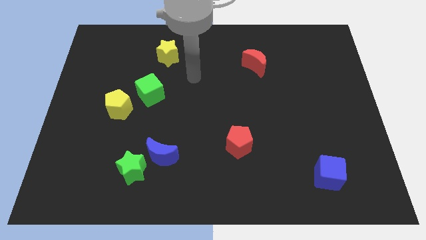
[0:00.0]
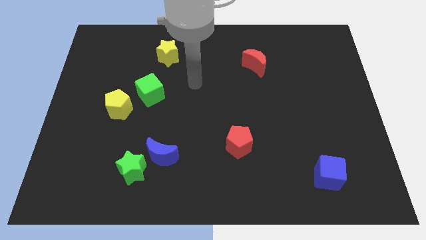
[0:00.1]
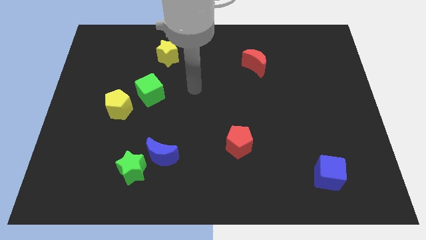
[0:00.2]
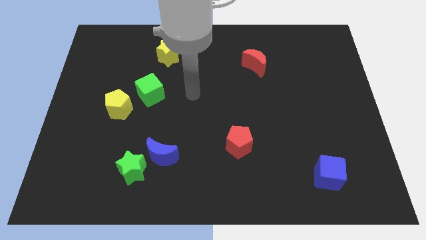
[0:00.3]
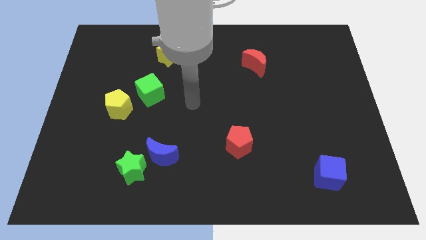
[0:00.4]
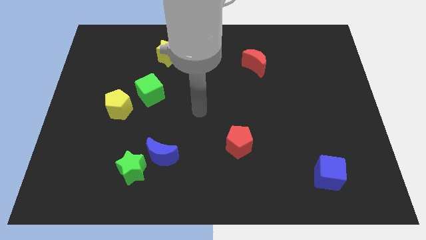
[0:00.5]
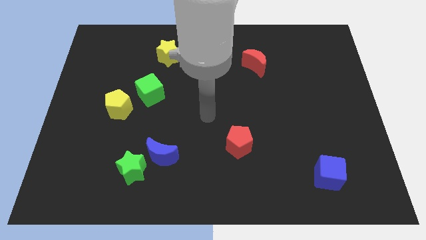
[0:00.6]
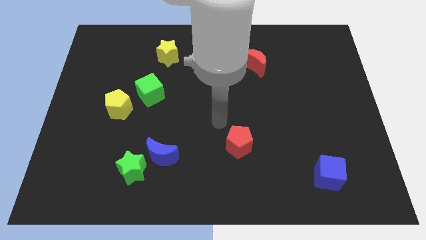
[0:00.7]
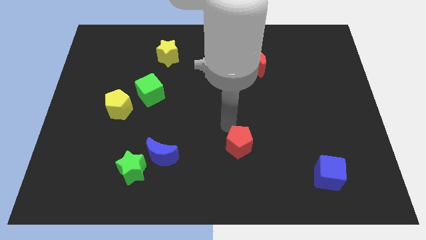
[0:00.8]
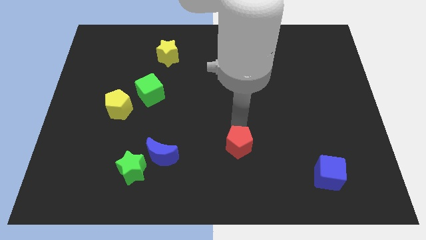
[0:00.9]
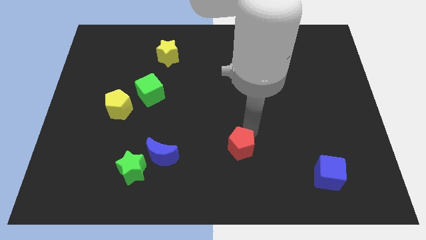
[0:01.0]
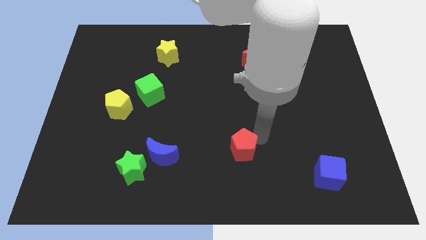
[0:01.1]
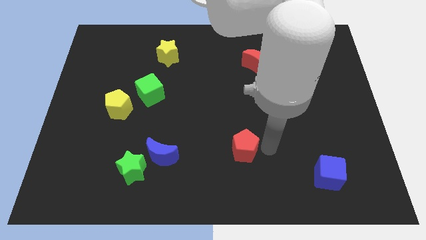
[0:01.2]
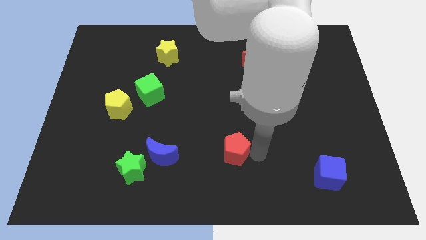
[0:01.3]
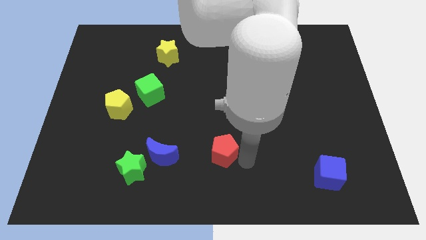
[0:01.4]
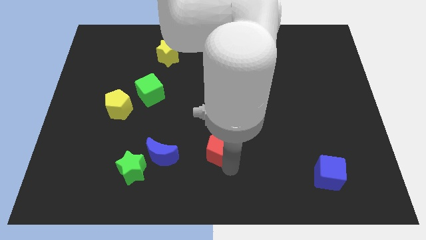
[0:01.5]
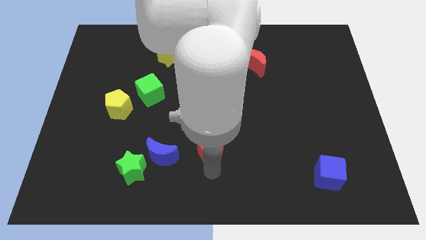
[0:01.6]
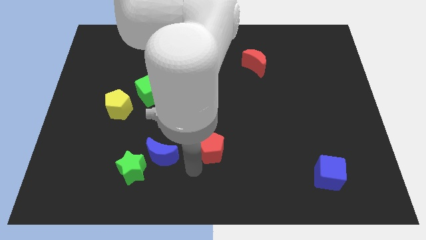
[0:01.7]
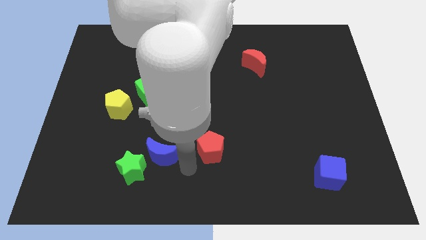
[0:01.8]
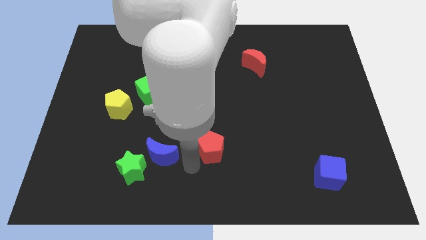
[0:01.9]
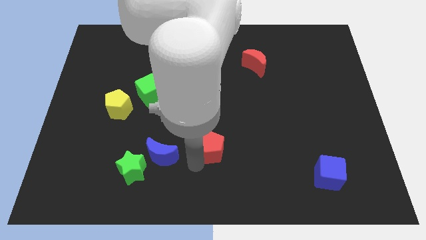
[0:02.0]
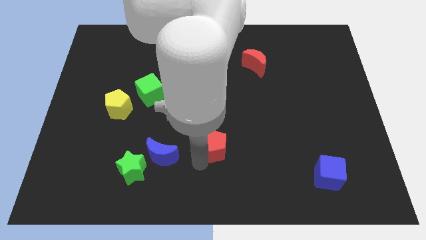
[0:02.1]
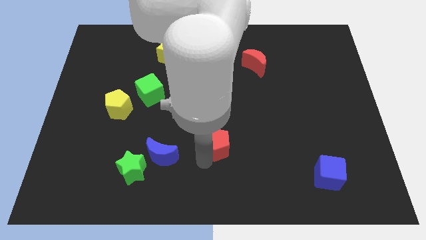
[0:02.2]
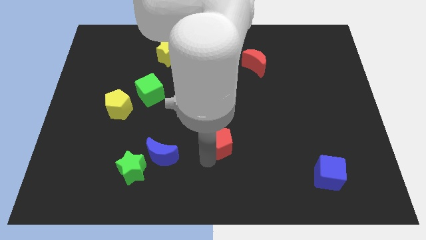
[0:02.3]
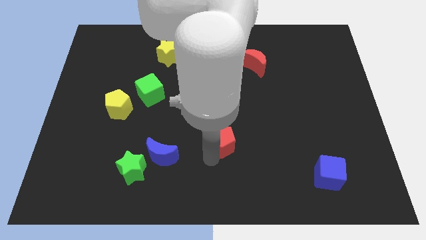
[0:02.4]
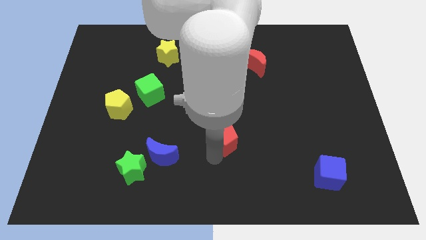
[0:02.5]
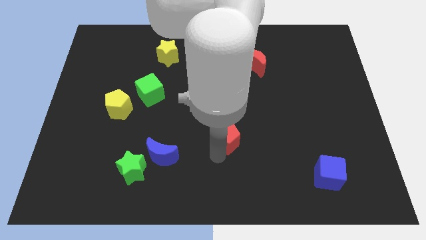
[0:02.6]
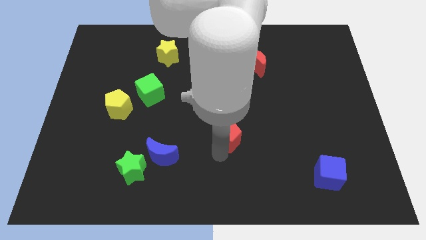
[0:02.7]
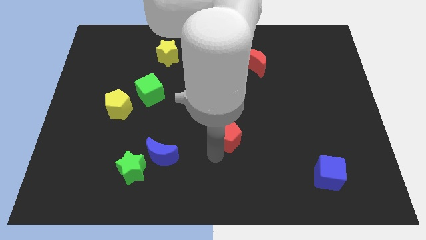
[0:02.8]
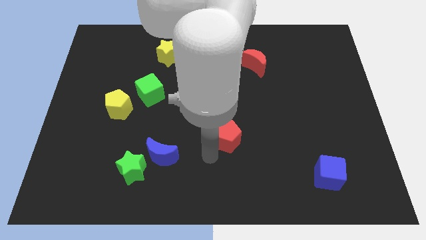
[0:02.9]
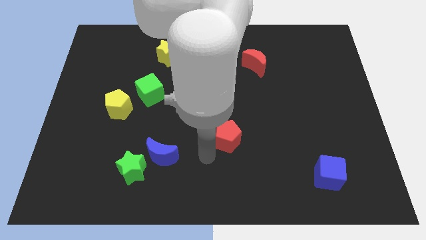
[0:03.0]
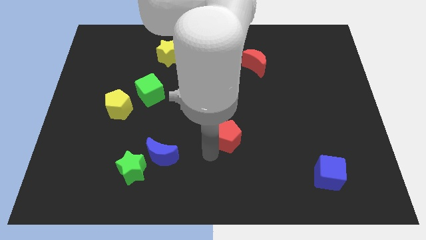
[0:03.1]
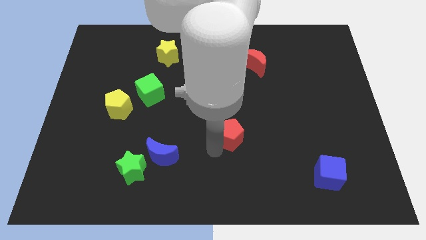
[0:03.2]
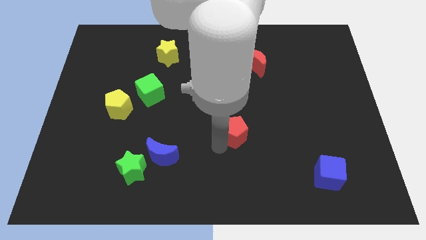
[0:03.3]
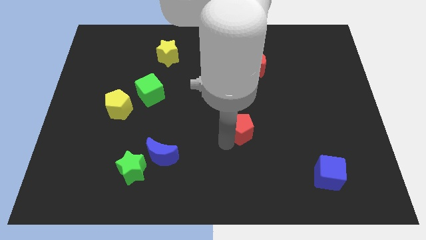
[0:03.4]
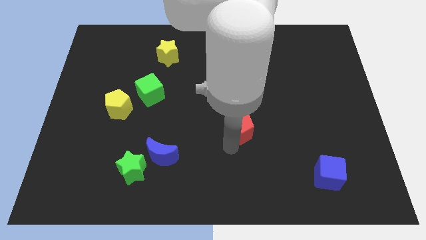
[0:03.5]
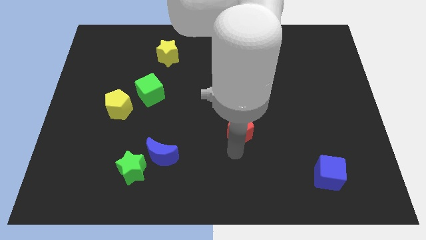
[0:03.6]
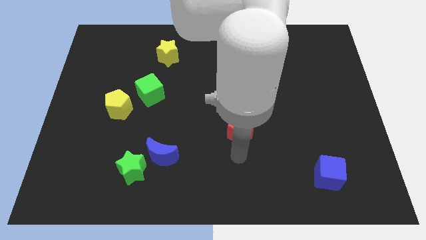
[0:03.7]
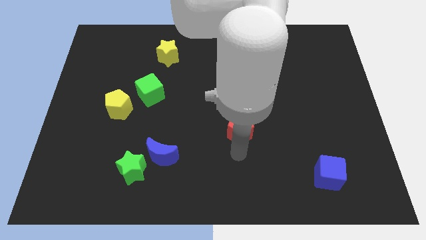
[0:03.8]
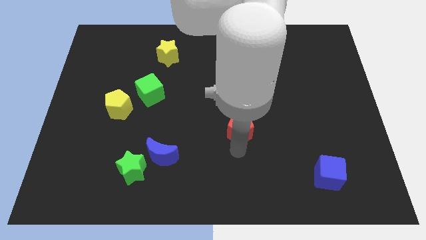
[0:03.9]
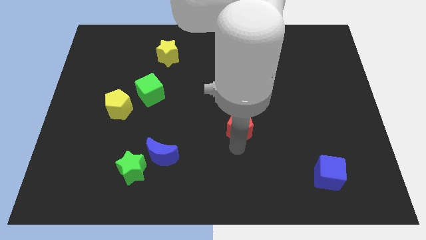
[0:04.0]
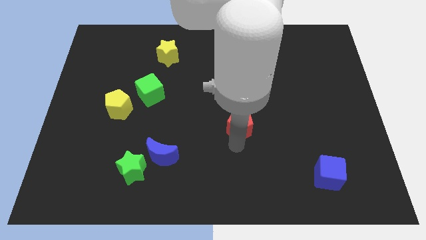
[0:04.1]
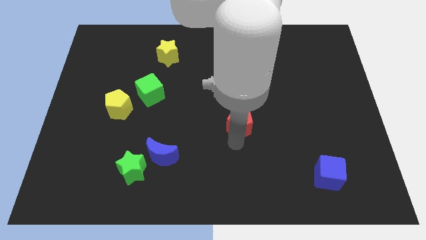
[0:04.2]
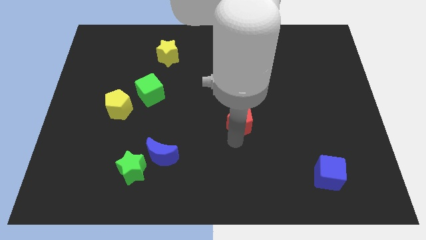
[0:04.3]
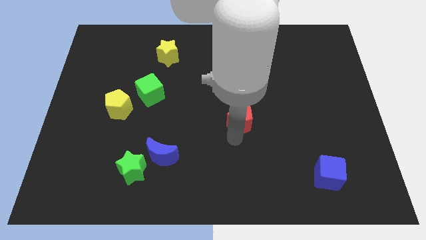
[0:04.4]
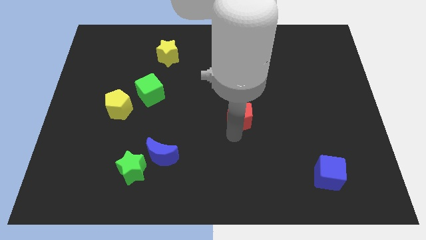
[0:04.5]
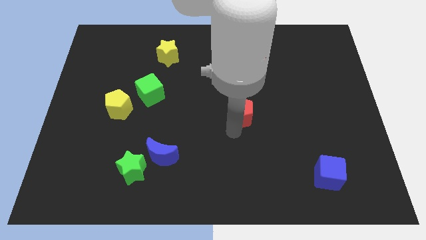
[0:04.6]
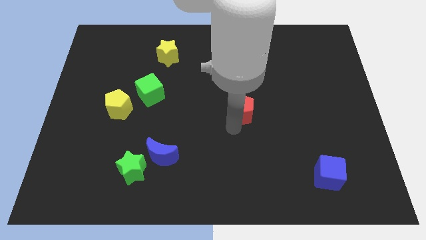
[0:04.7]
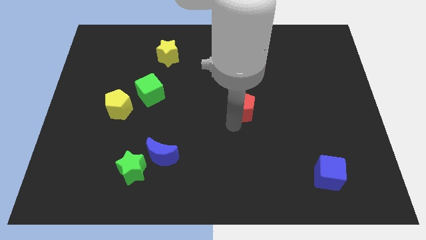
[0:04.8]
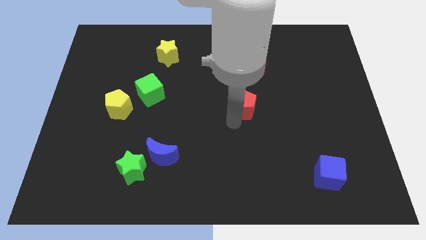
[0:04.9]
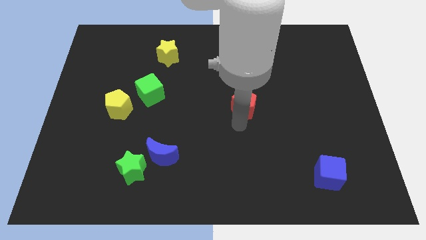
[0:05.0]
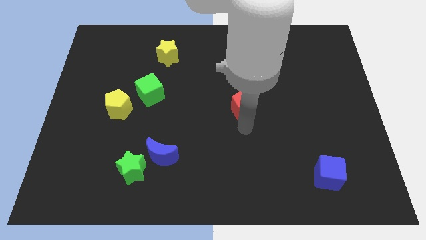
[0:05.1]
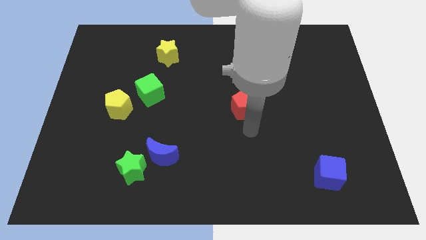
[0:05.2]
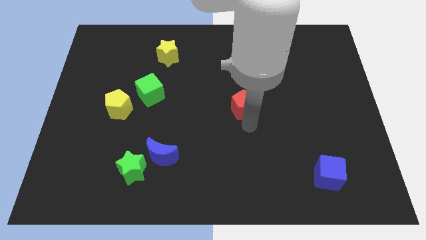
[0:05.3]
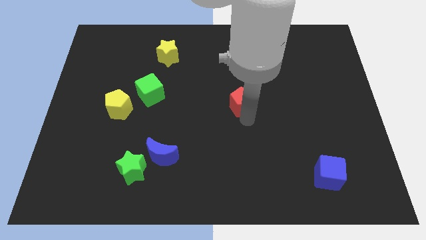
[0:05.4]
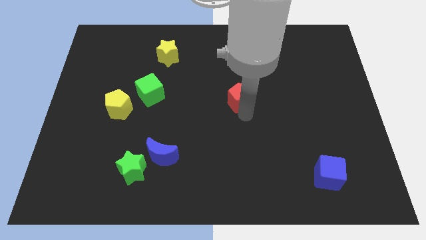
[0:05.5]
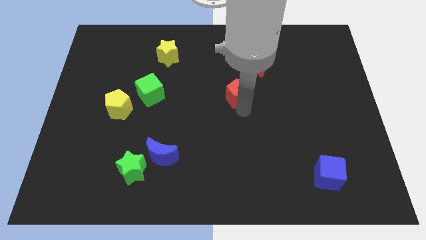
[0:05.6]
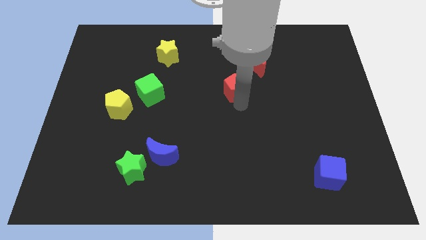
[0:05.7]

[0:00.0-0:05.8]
put the red pentagon to the bottom left of the red moon

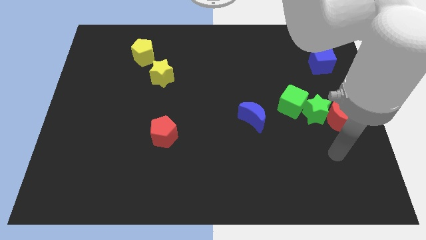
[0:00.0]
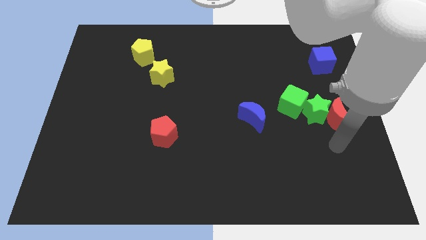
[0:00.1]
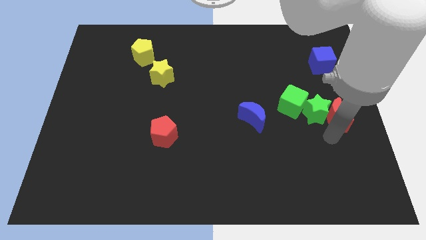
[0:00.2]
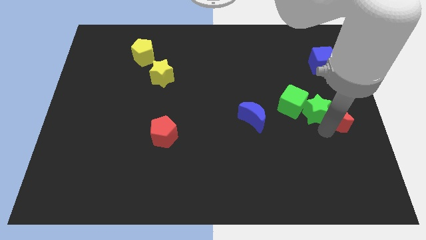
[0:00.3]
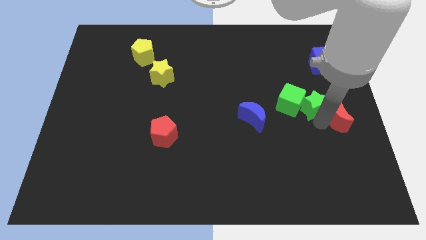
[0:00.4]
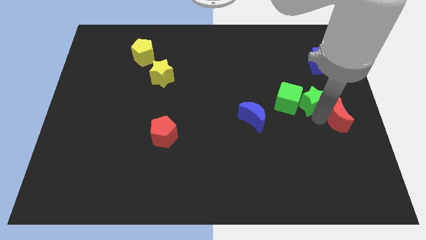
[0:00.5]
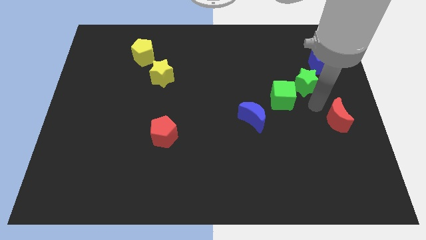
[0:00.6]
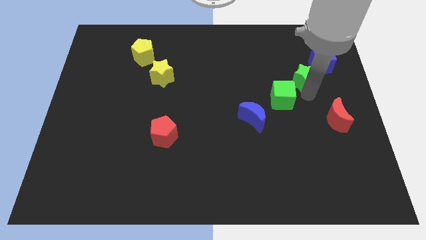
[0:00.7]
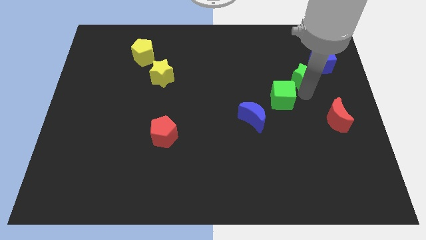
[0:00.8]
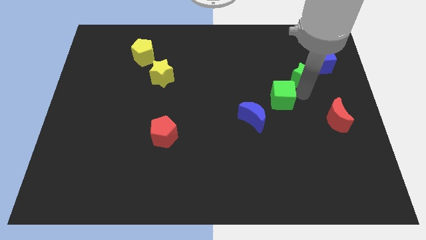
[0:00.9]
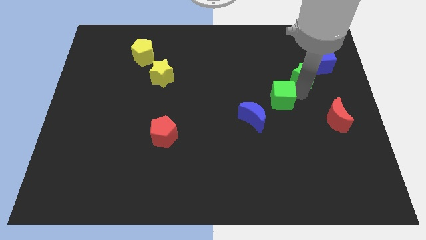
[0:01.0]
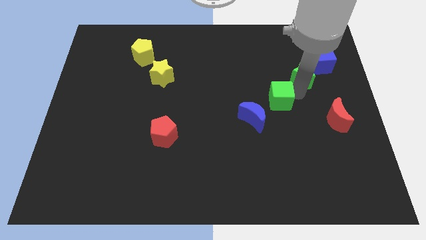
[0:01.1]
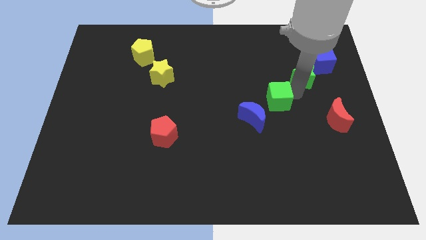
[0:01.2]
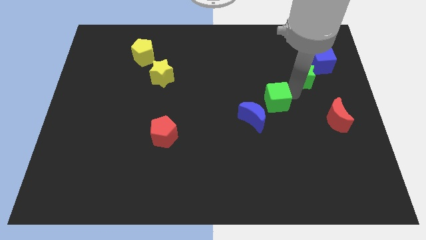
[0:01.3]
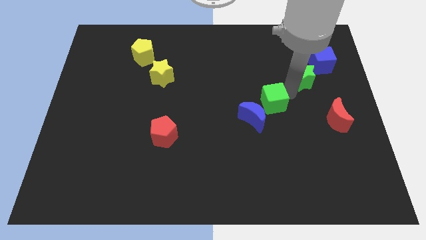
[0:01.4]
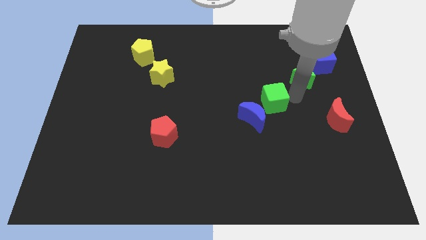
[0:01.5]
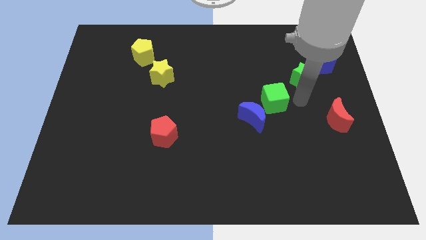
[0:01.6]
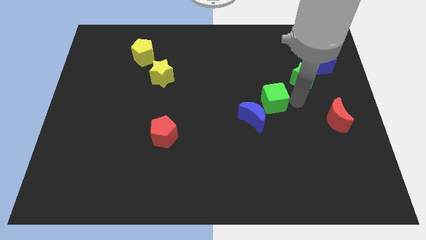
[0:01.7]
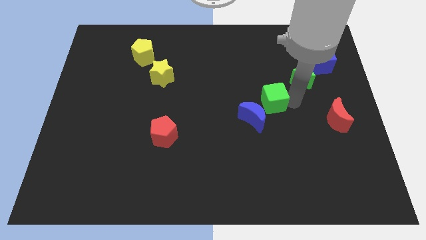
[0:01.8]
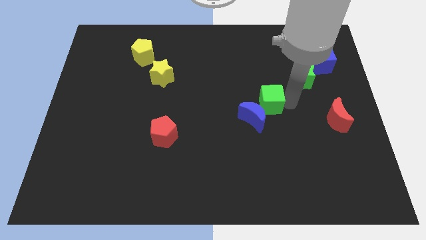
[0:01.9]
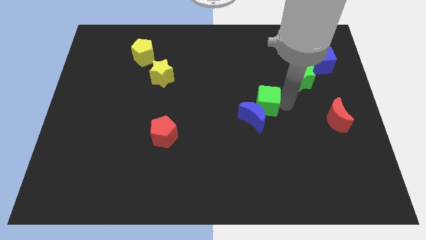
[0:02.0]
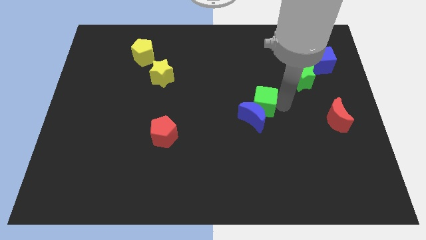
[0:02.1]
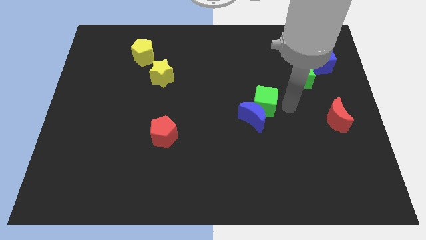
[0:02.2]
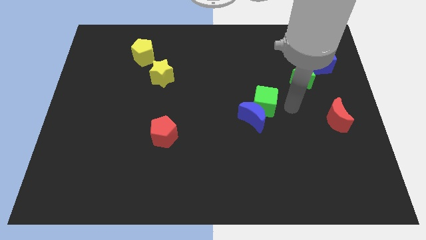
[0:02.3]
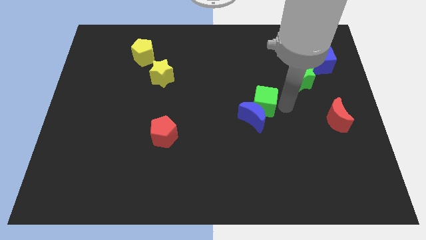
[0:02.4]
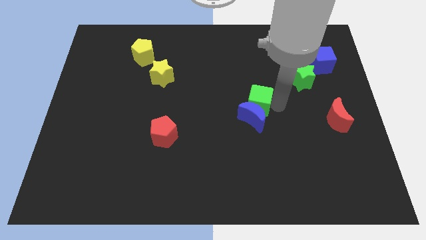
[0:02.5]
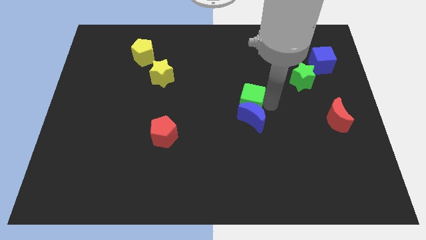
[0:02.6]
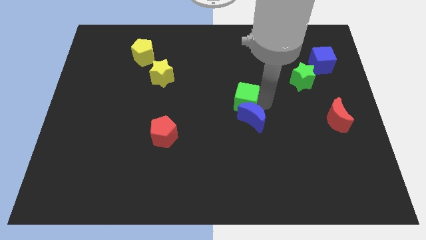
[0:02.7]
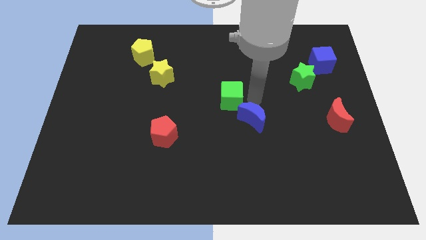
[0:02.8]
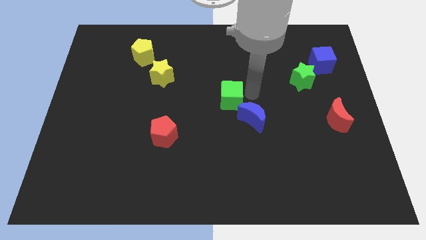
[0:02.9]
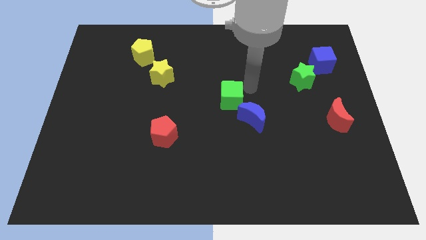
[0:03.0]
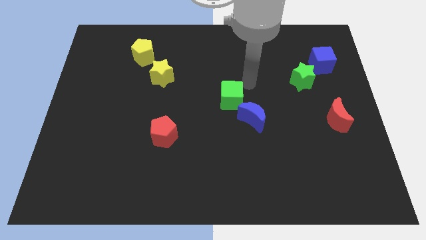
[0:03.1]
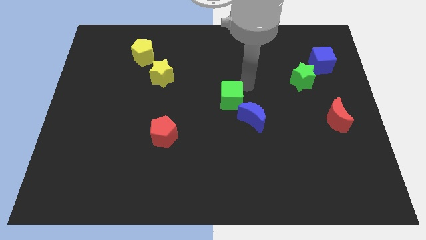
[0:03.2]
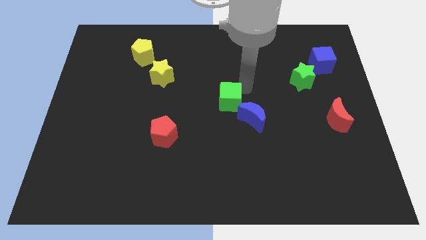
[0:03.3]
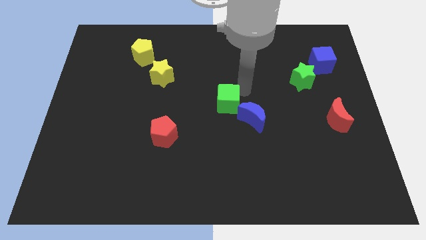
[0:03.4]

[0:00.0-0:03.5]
push the green cube just left of the blue moon
